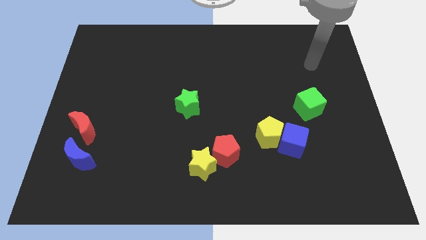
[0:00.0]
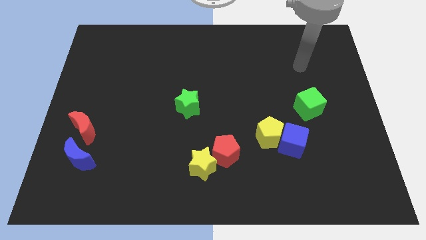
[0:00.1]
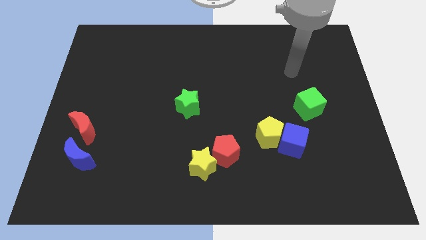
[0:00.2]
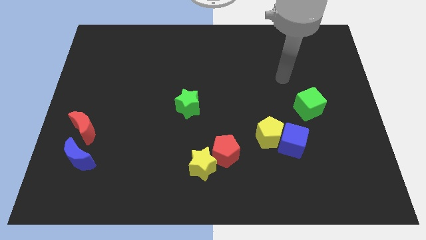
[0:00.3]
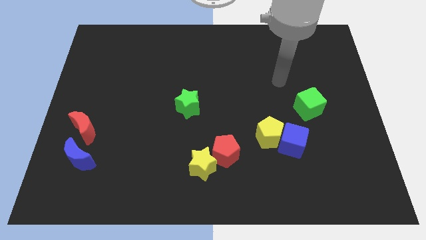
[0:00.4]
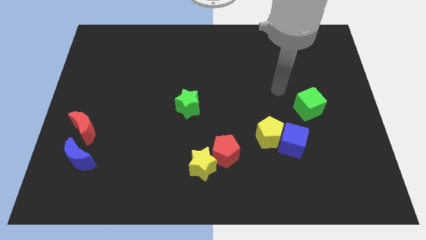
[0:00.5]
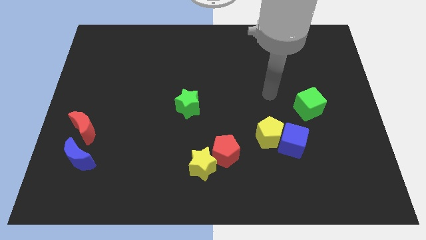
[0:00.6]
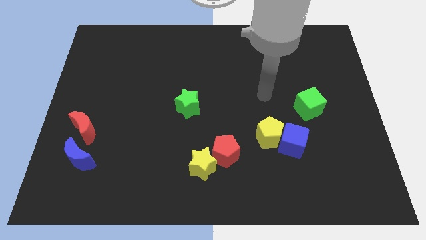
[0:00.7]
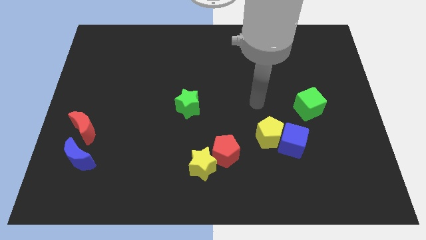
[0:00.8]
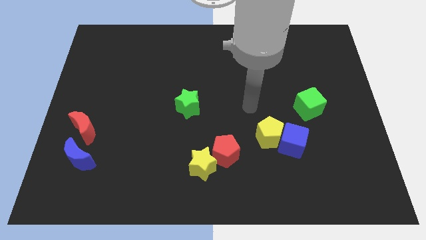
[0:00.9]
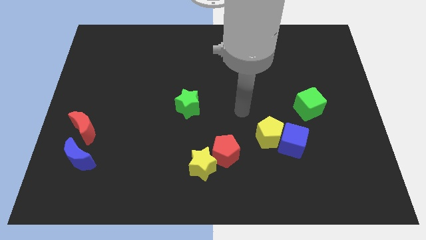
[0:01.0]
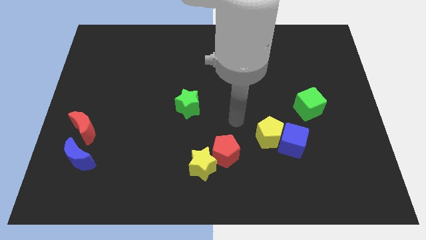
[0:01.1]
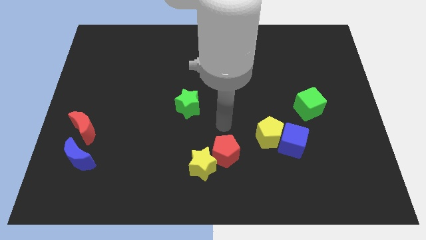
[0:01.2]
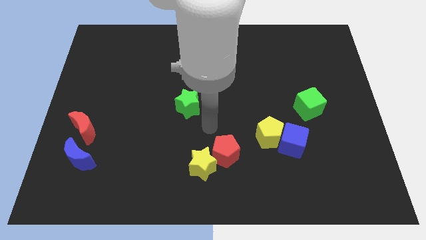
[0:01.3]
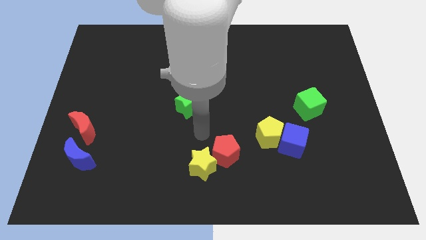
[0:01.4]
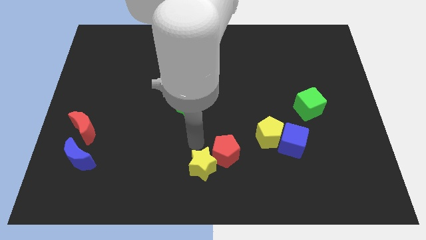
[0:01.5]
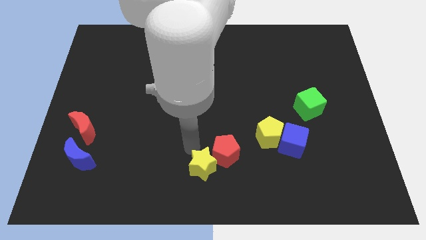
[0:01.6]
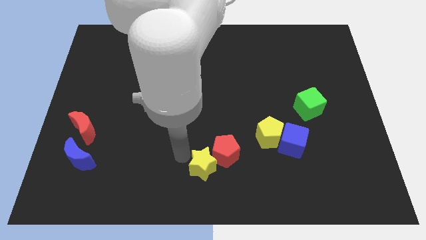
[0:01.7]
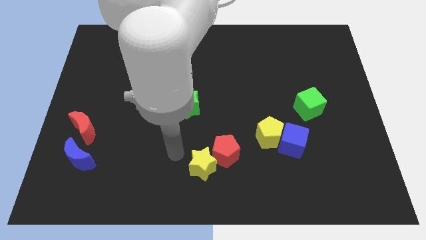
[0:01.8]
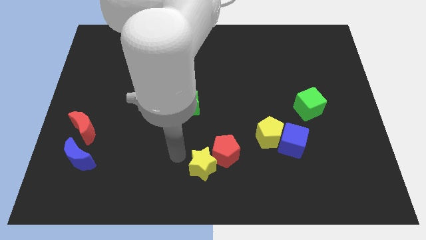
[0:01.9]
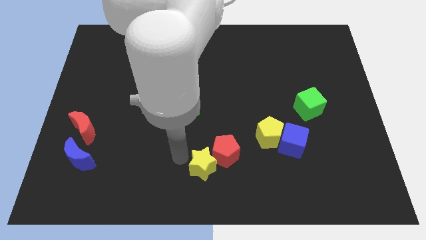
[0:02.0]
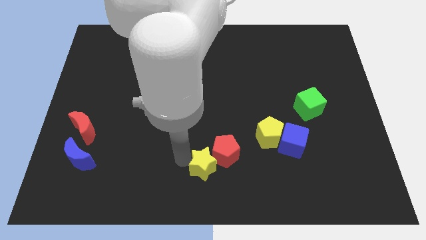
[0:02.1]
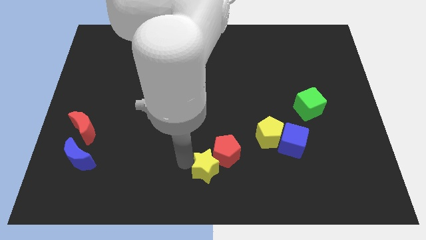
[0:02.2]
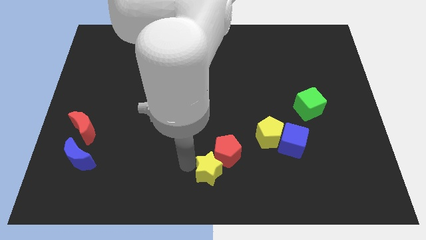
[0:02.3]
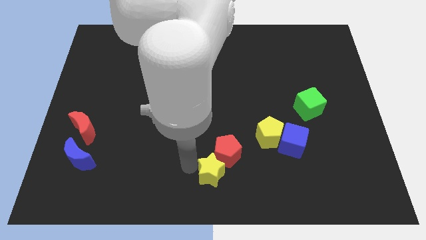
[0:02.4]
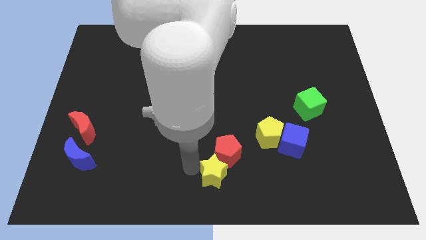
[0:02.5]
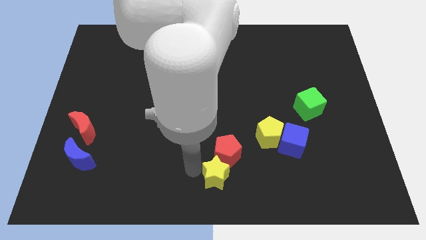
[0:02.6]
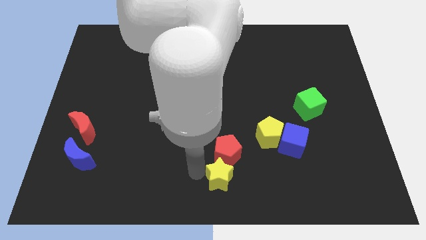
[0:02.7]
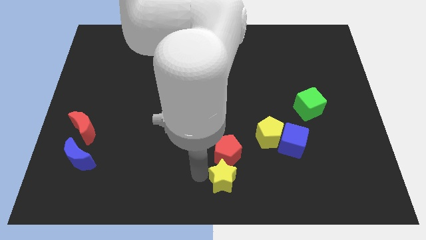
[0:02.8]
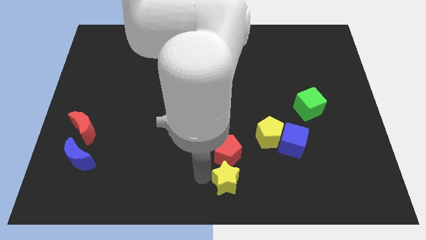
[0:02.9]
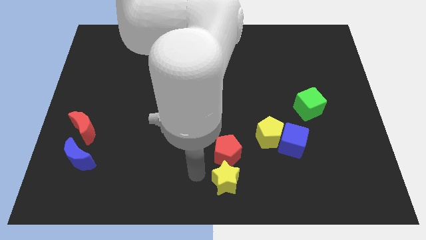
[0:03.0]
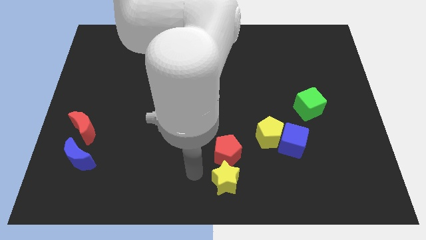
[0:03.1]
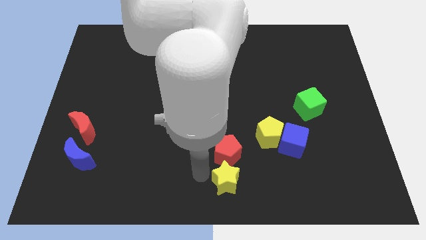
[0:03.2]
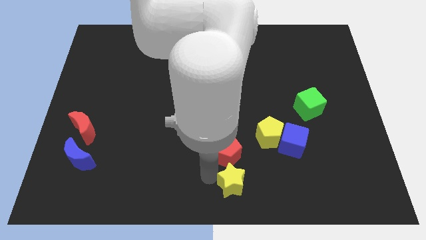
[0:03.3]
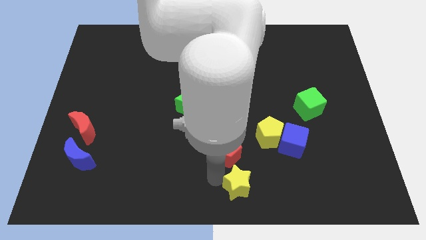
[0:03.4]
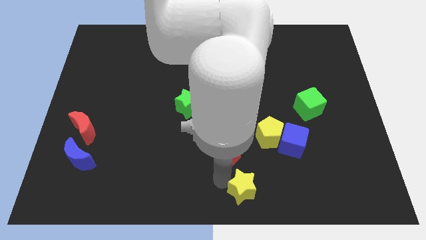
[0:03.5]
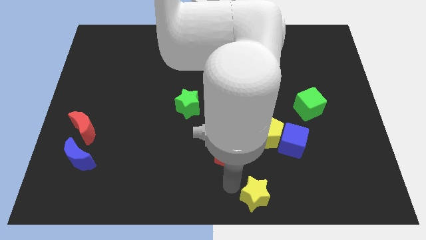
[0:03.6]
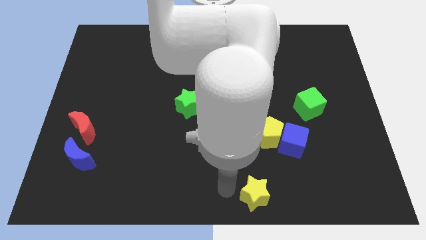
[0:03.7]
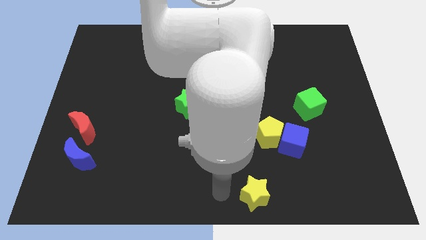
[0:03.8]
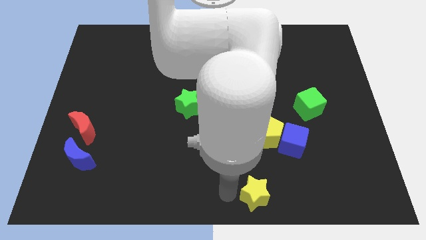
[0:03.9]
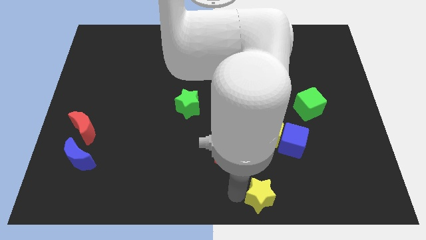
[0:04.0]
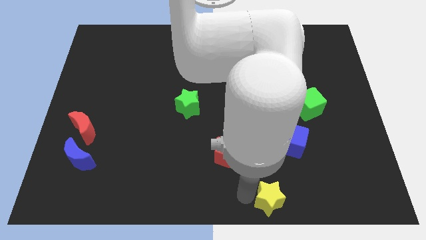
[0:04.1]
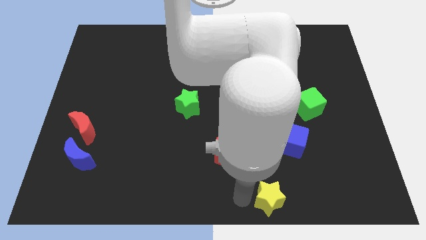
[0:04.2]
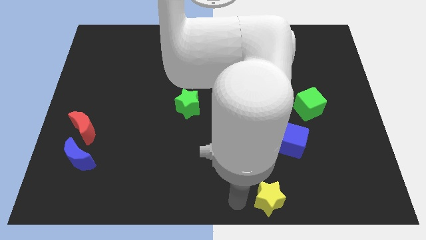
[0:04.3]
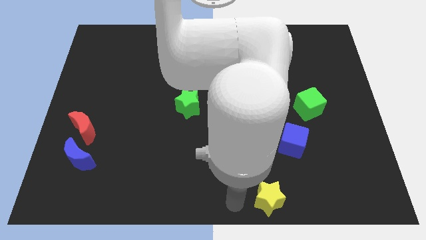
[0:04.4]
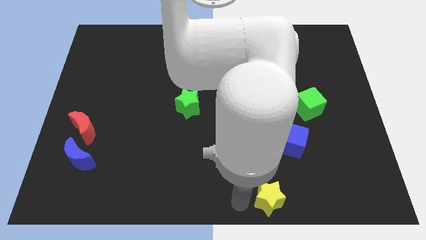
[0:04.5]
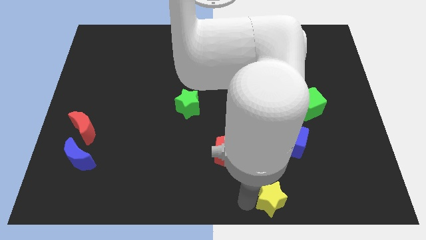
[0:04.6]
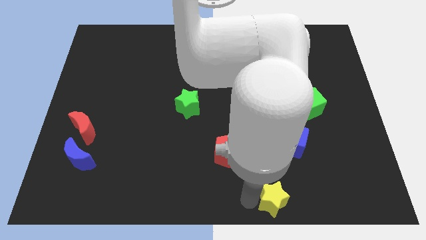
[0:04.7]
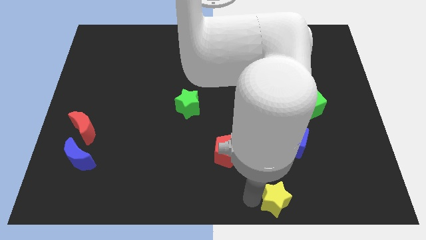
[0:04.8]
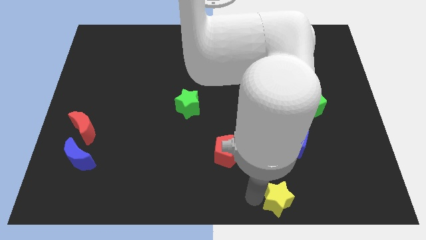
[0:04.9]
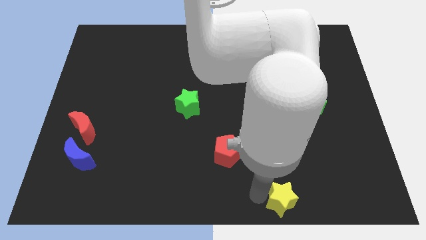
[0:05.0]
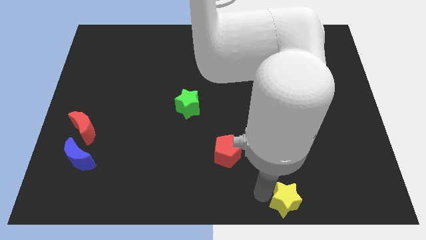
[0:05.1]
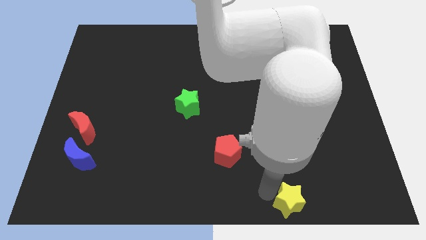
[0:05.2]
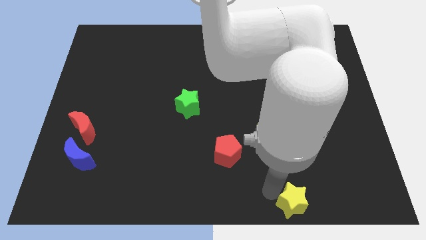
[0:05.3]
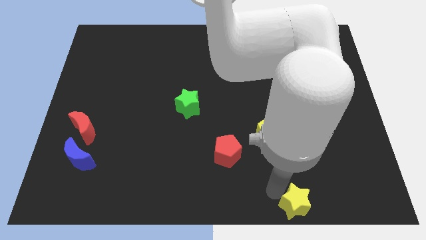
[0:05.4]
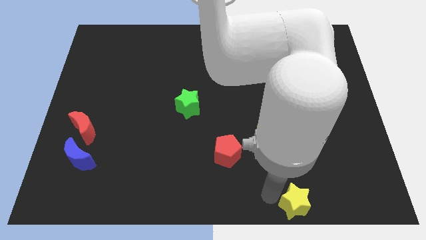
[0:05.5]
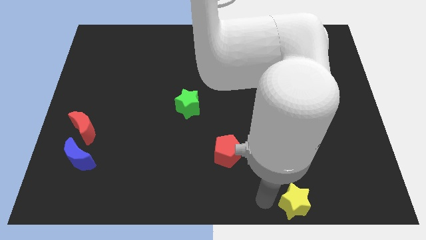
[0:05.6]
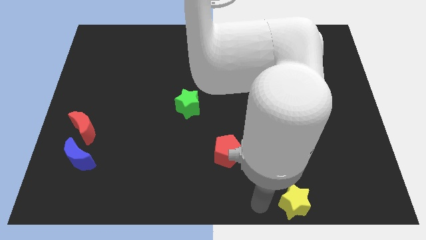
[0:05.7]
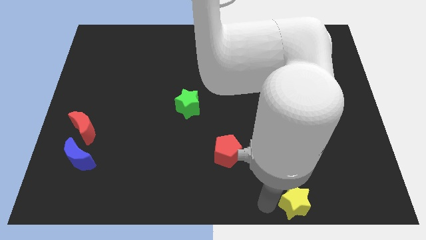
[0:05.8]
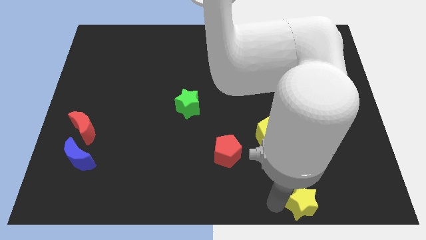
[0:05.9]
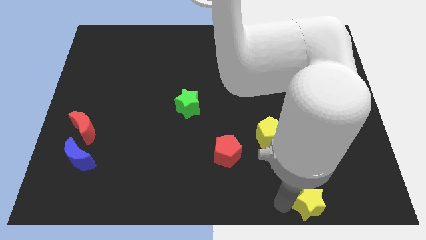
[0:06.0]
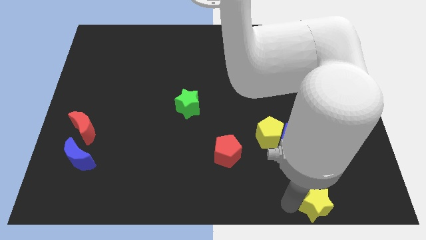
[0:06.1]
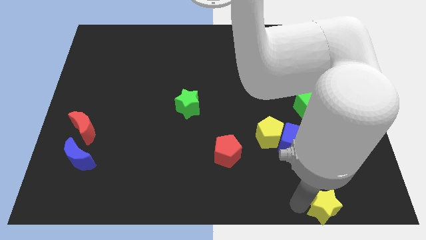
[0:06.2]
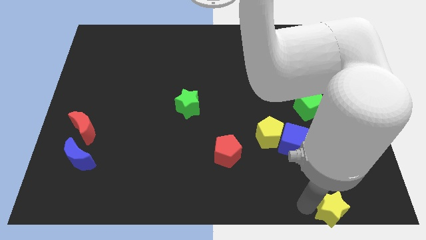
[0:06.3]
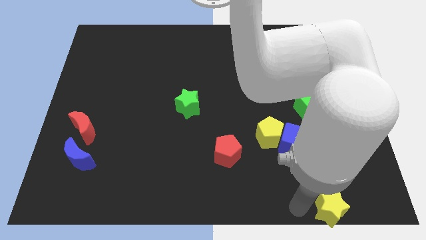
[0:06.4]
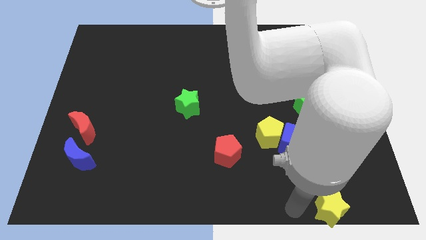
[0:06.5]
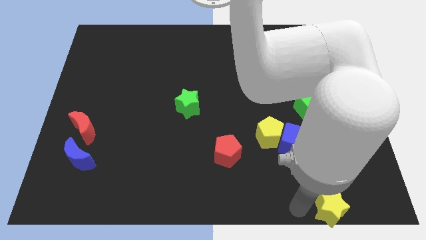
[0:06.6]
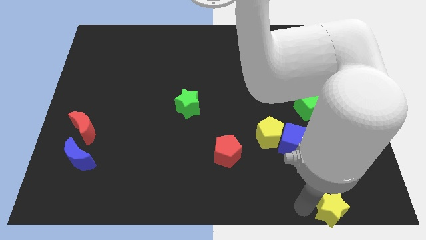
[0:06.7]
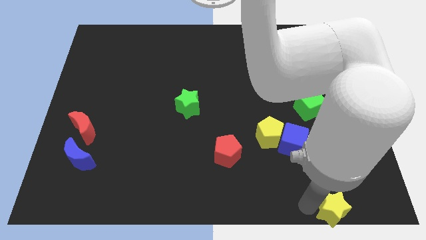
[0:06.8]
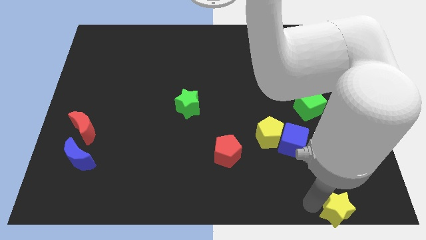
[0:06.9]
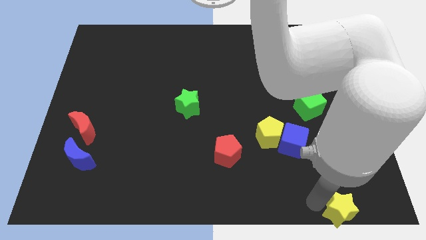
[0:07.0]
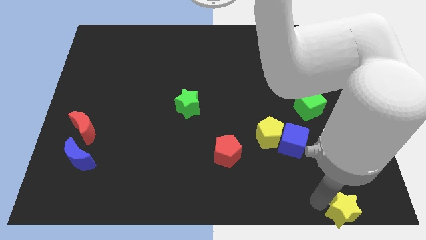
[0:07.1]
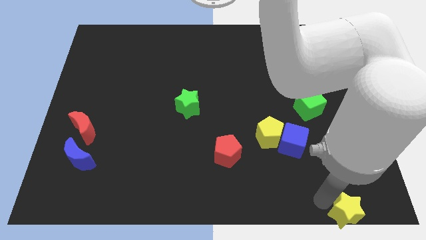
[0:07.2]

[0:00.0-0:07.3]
put the yellow star to the bottom right of the board
